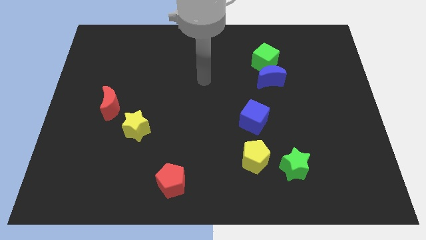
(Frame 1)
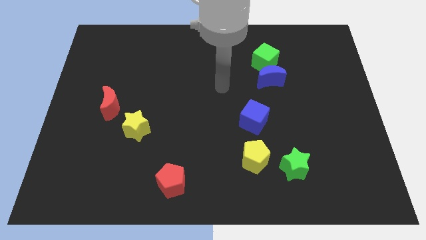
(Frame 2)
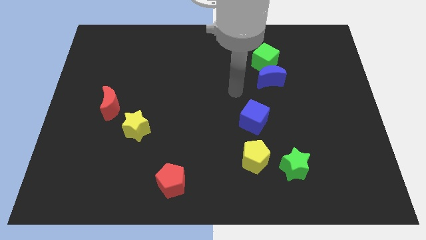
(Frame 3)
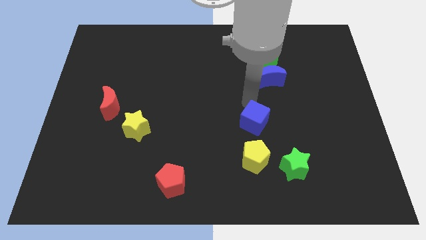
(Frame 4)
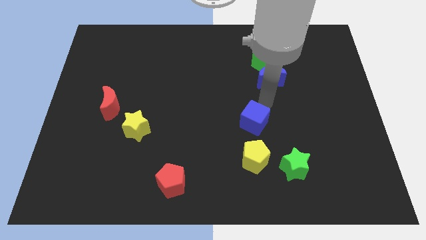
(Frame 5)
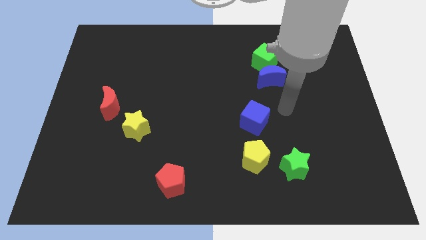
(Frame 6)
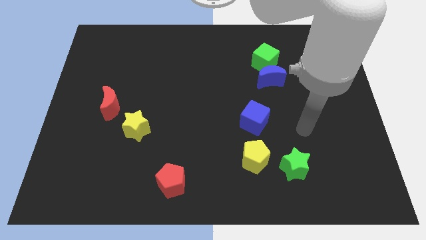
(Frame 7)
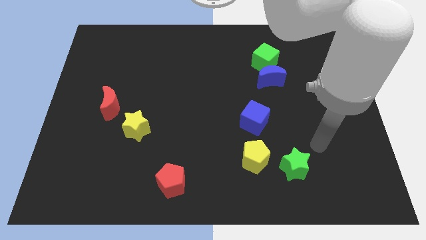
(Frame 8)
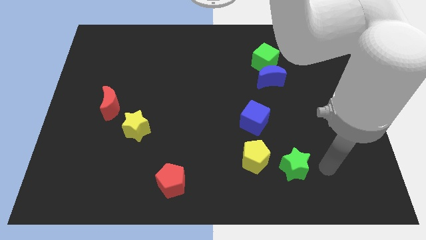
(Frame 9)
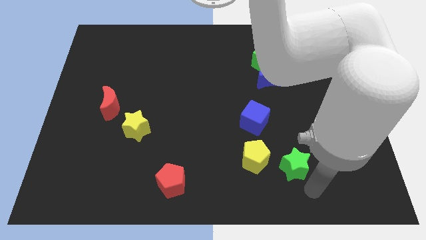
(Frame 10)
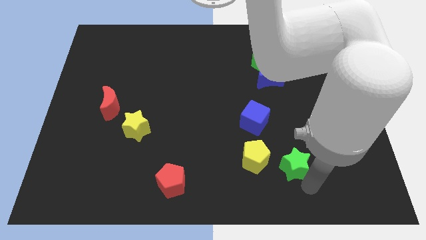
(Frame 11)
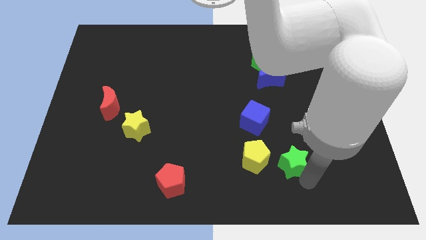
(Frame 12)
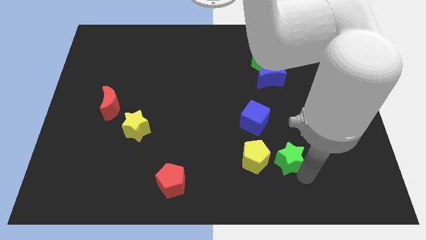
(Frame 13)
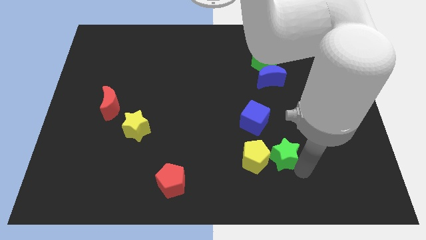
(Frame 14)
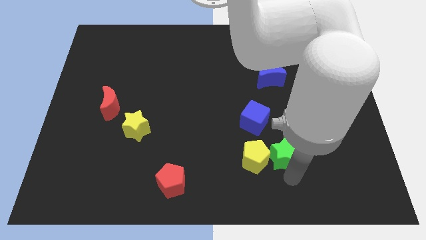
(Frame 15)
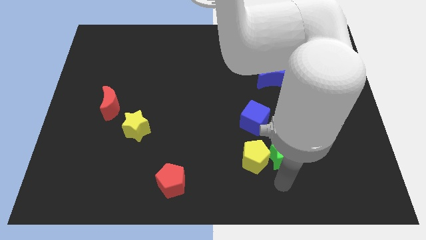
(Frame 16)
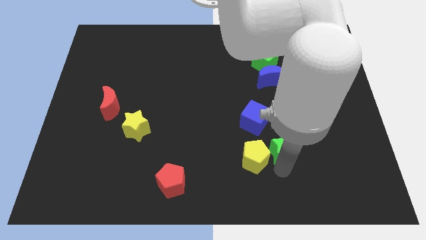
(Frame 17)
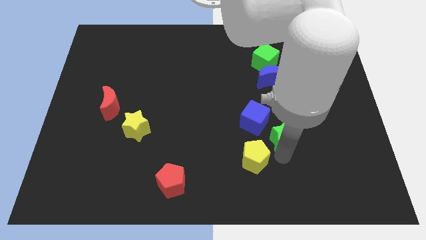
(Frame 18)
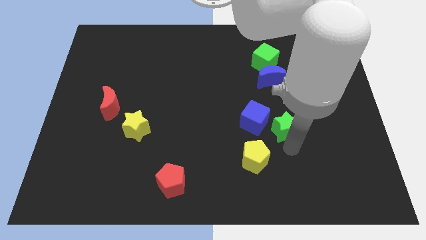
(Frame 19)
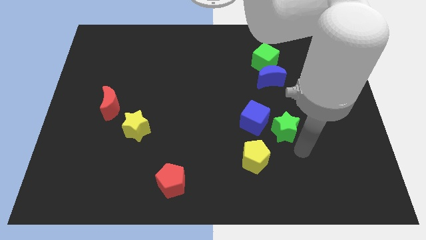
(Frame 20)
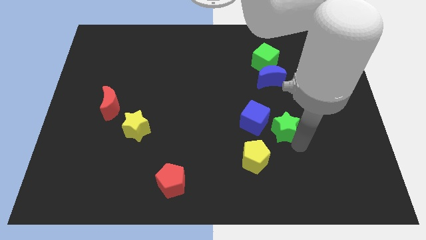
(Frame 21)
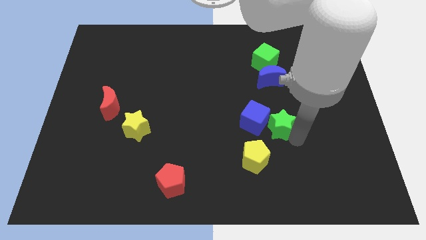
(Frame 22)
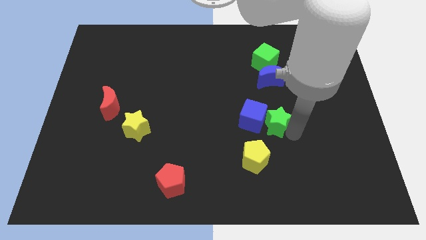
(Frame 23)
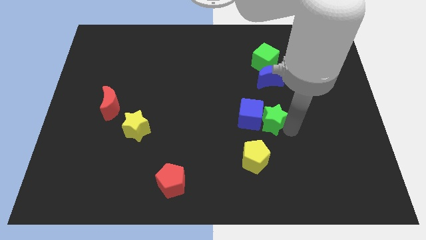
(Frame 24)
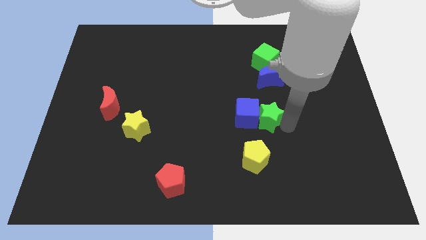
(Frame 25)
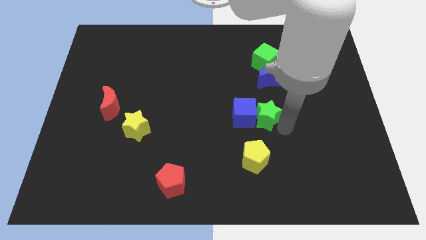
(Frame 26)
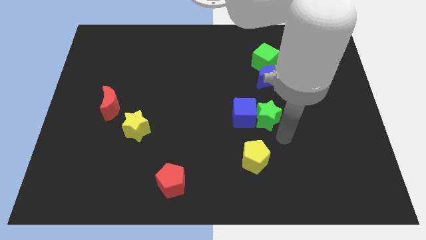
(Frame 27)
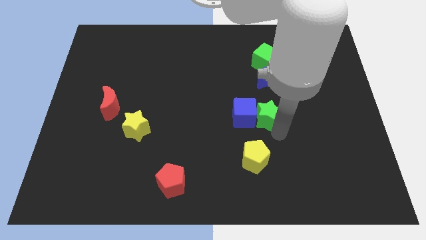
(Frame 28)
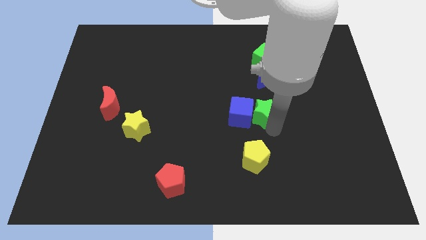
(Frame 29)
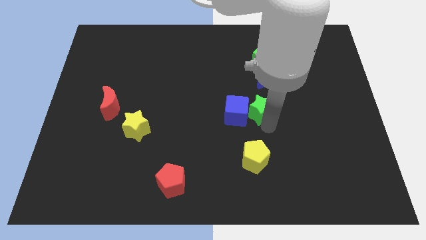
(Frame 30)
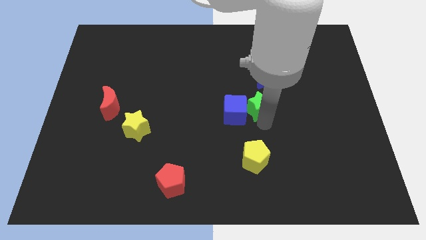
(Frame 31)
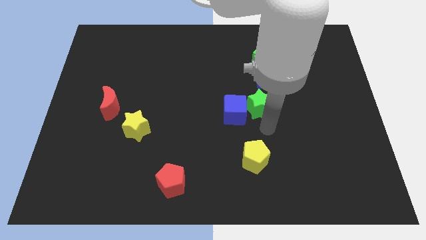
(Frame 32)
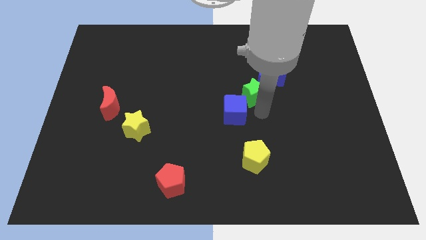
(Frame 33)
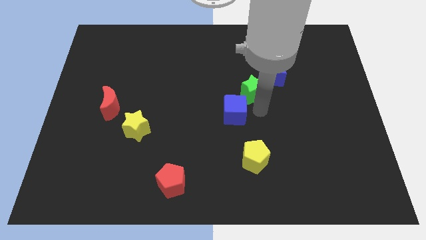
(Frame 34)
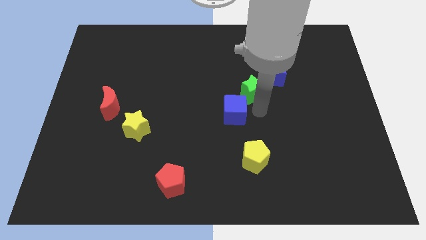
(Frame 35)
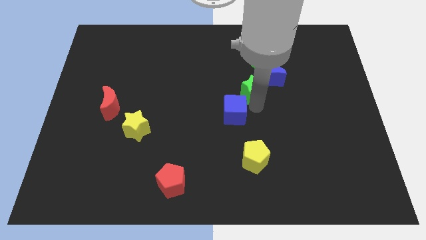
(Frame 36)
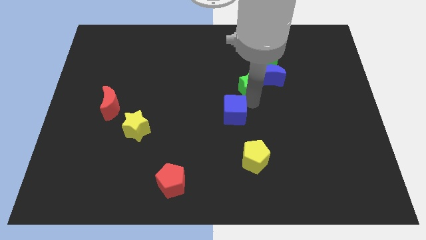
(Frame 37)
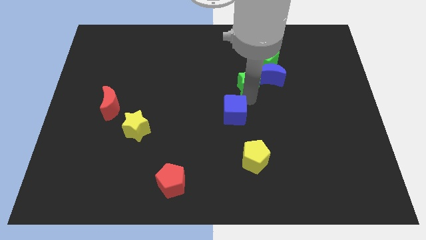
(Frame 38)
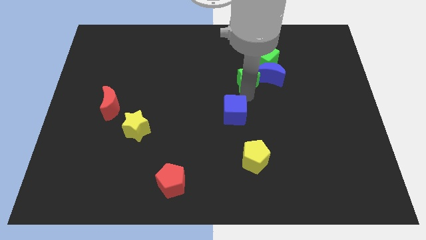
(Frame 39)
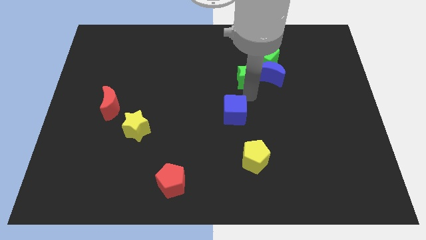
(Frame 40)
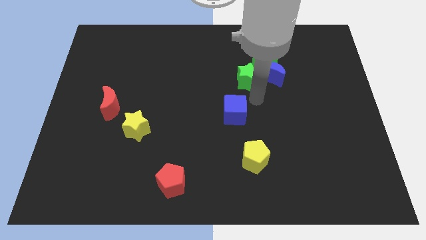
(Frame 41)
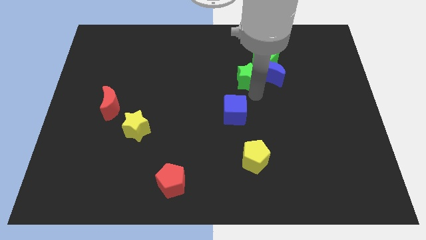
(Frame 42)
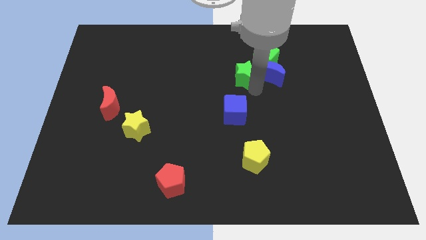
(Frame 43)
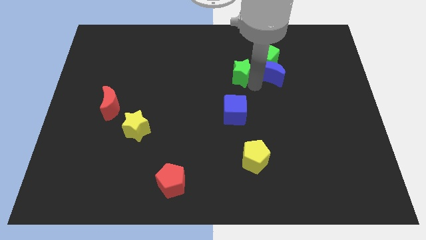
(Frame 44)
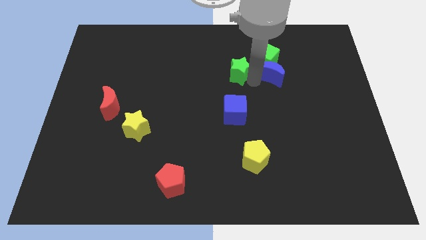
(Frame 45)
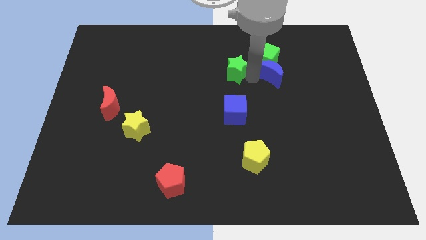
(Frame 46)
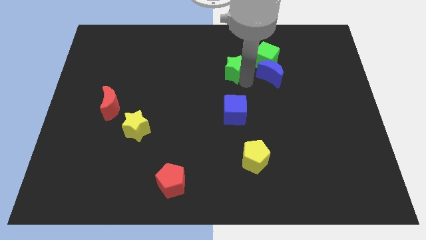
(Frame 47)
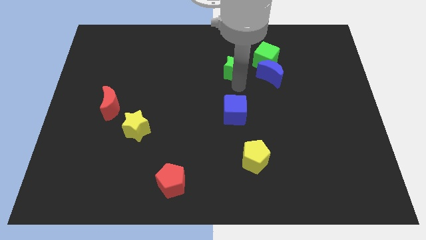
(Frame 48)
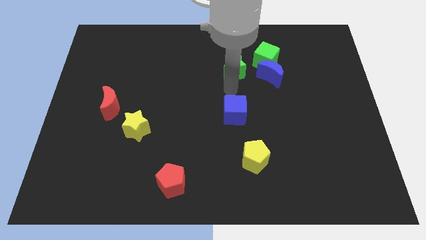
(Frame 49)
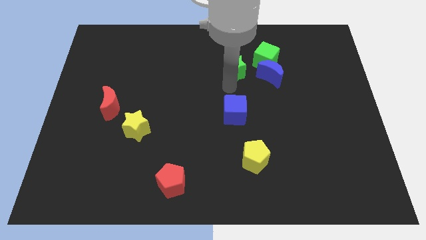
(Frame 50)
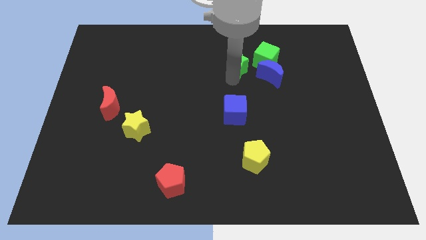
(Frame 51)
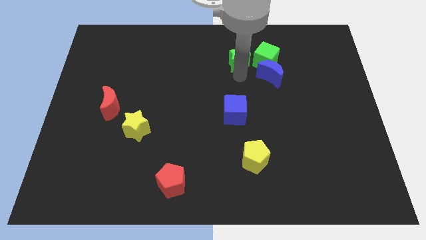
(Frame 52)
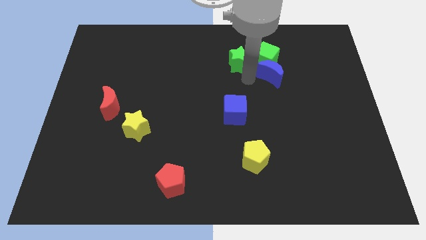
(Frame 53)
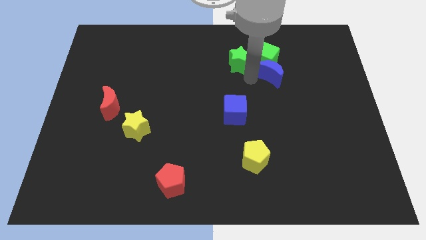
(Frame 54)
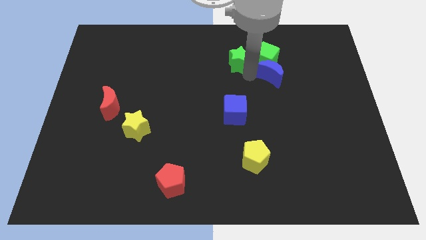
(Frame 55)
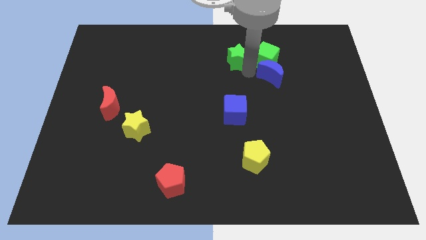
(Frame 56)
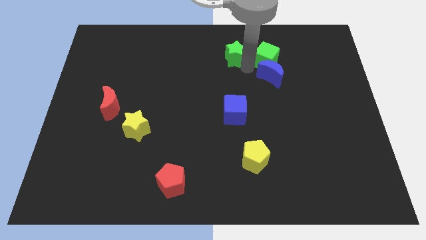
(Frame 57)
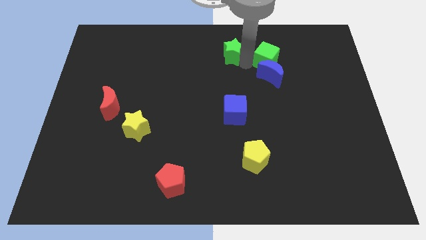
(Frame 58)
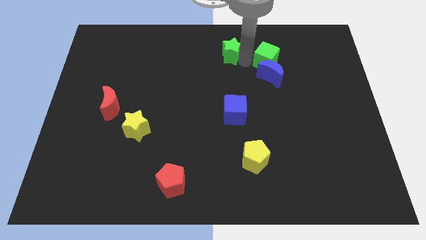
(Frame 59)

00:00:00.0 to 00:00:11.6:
slide the green star to the top side
